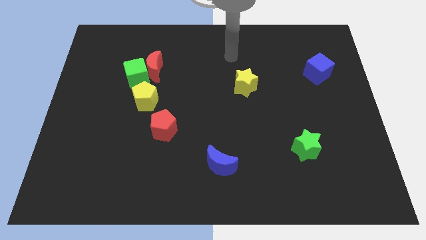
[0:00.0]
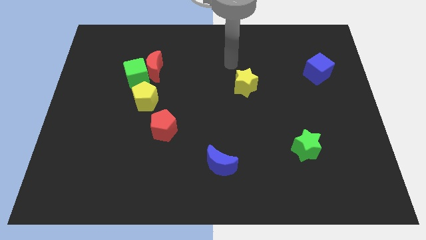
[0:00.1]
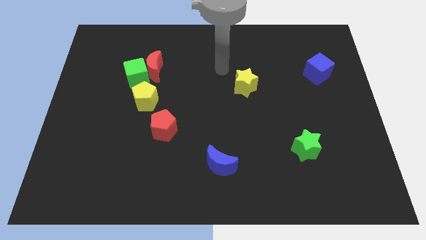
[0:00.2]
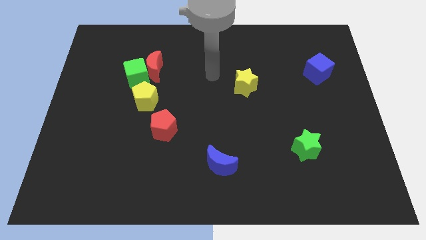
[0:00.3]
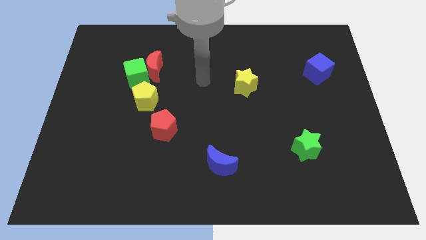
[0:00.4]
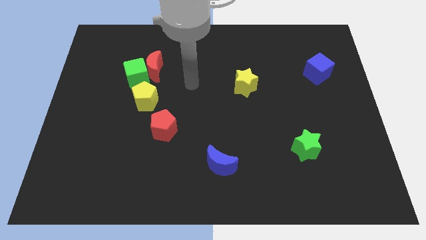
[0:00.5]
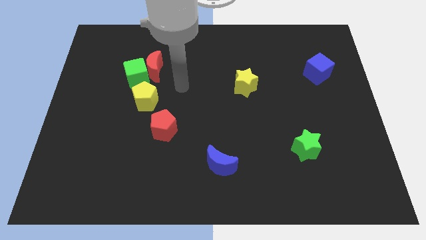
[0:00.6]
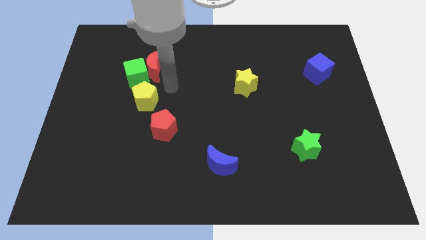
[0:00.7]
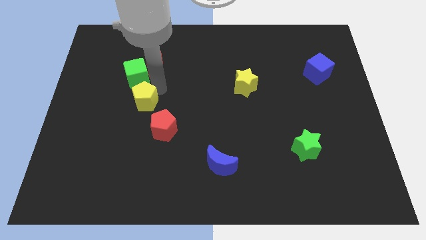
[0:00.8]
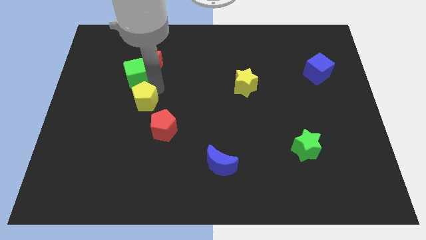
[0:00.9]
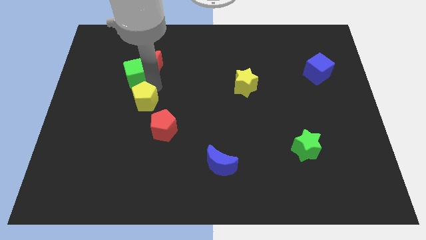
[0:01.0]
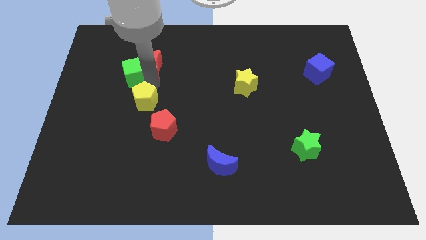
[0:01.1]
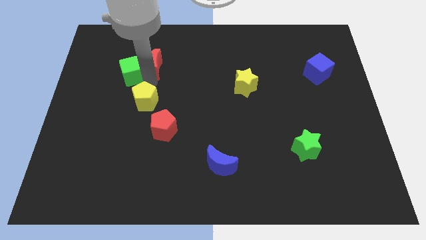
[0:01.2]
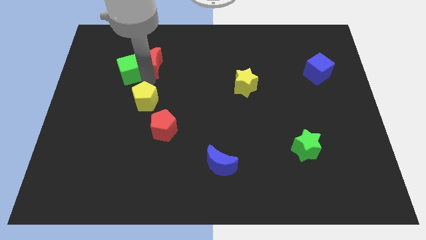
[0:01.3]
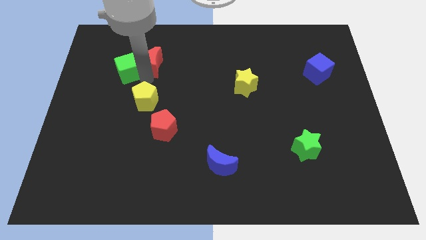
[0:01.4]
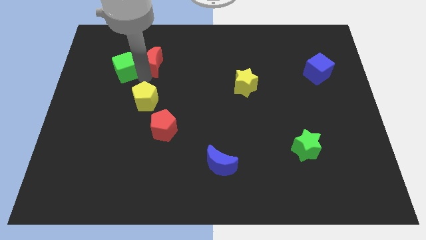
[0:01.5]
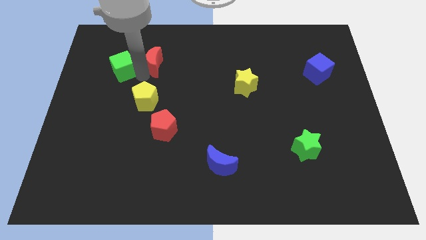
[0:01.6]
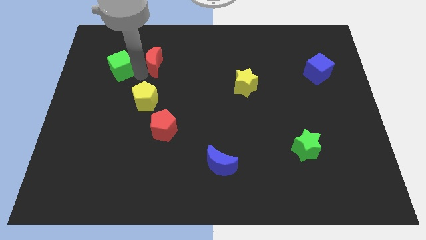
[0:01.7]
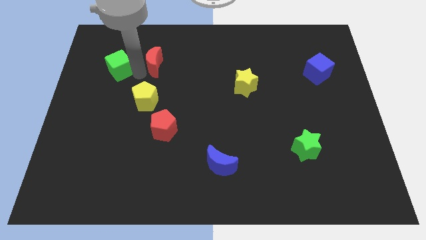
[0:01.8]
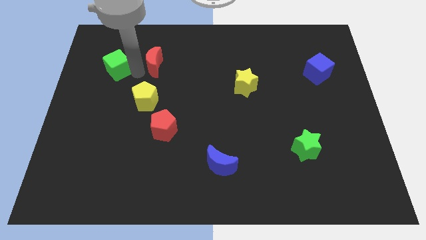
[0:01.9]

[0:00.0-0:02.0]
move the green cube away from the red moon and yellow pentagon

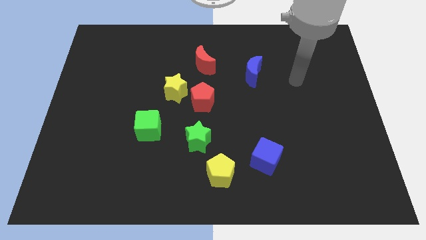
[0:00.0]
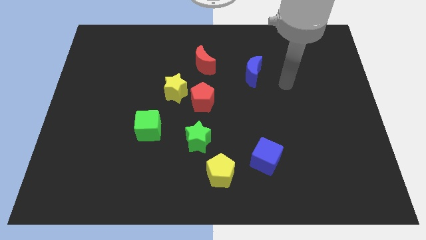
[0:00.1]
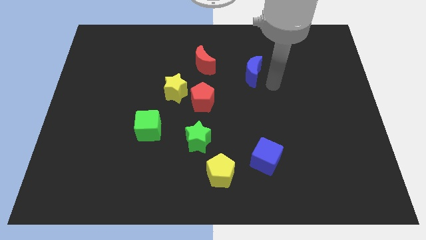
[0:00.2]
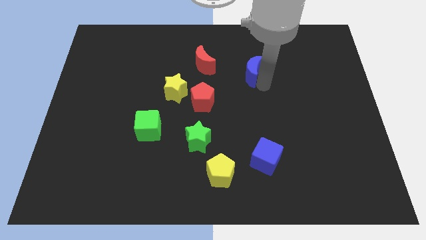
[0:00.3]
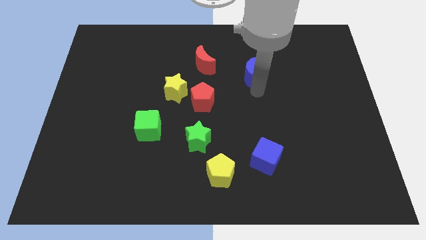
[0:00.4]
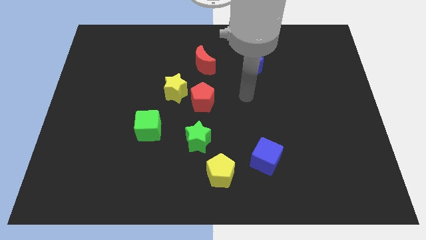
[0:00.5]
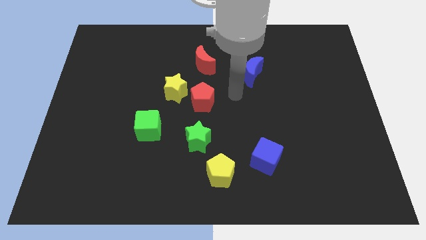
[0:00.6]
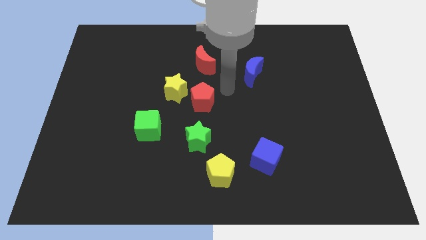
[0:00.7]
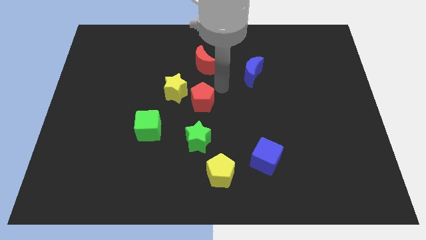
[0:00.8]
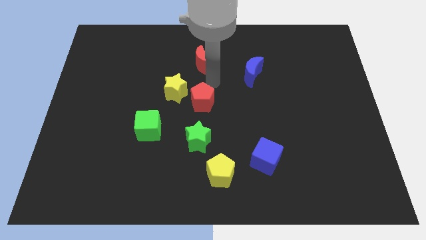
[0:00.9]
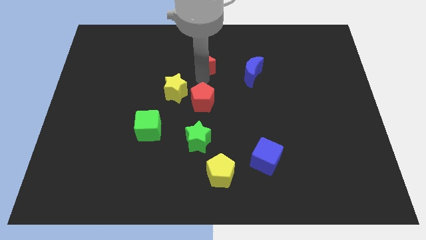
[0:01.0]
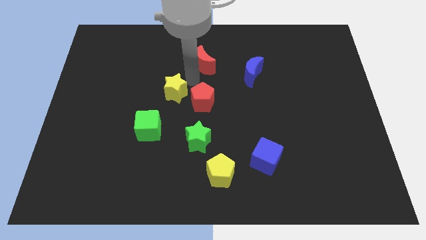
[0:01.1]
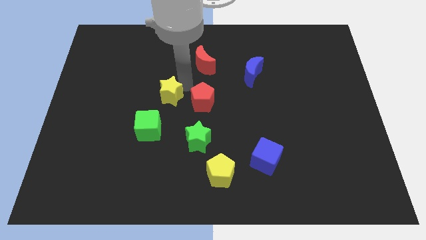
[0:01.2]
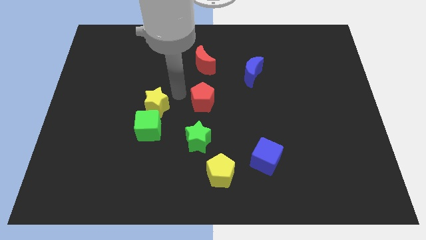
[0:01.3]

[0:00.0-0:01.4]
separate the red pentagon from the yellow star

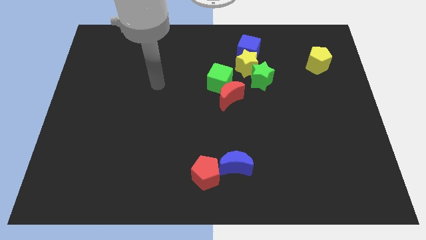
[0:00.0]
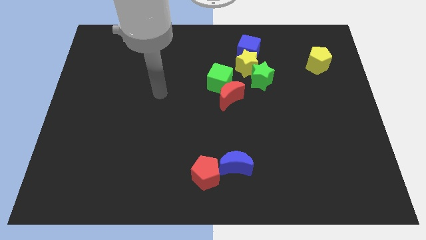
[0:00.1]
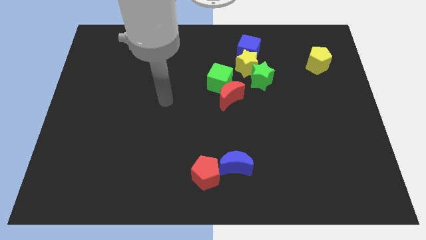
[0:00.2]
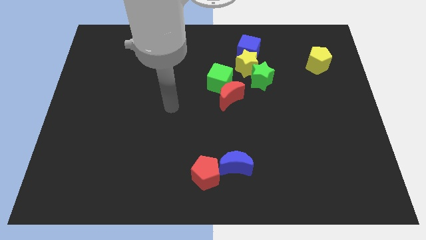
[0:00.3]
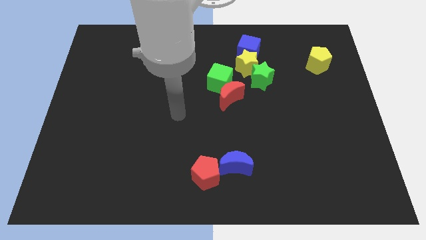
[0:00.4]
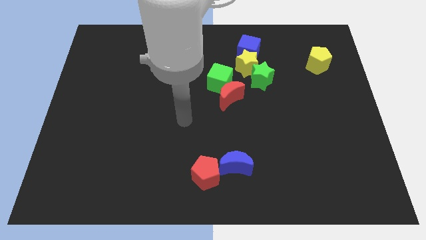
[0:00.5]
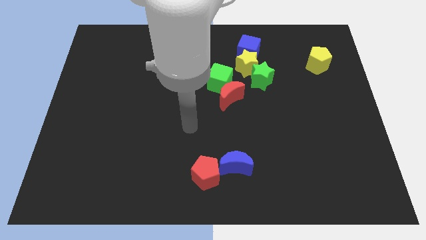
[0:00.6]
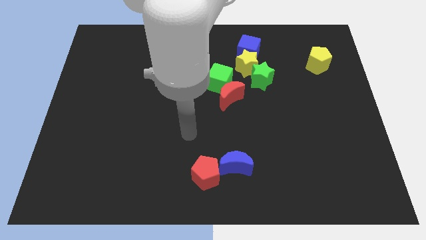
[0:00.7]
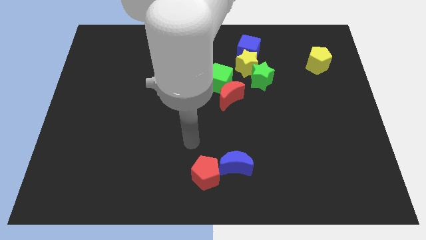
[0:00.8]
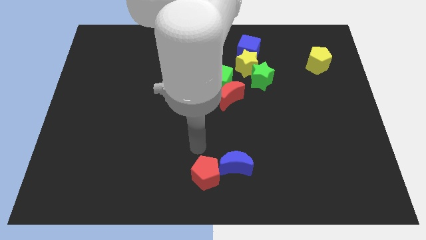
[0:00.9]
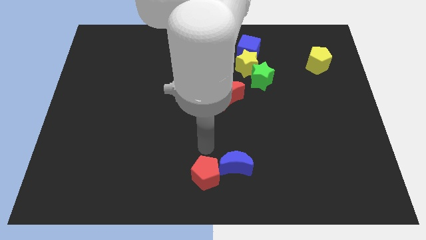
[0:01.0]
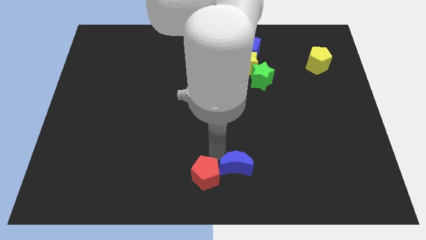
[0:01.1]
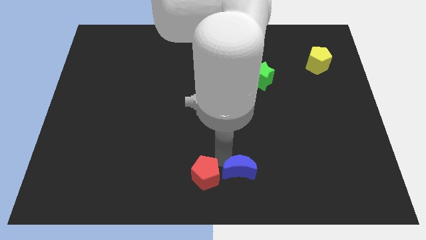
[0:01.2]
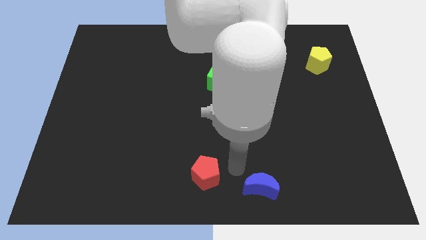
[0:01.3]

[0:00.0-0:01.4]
separate the red pentagon from the blue moon

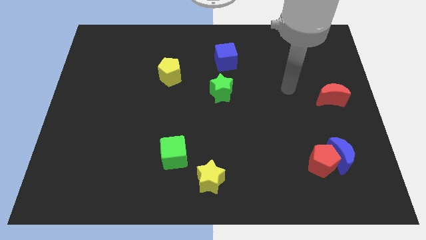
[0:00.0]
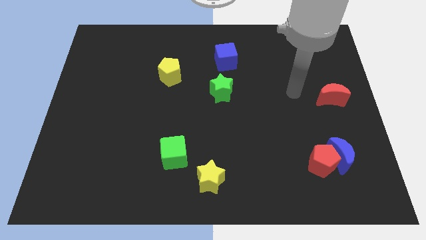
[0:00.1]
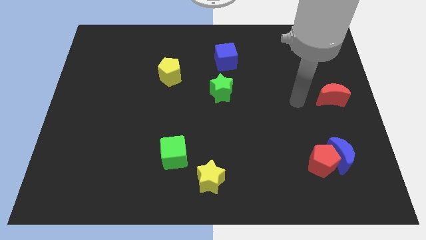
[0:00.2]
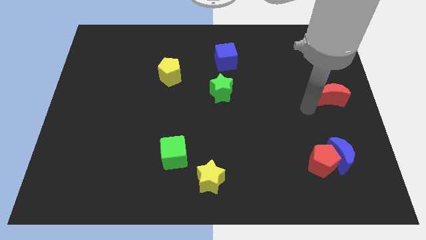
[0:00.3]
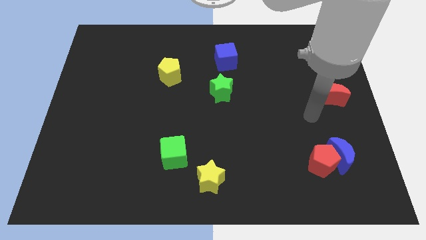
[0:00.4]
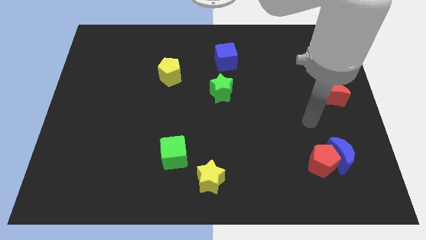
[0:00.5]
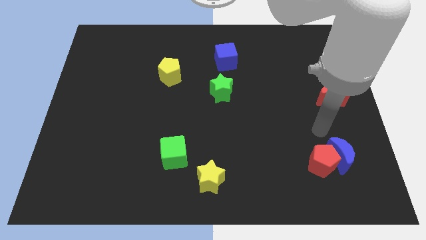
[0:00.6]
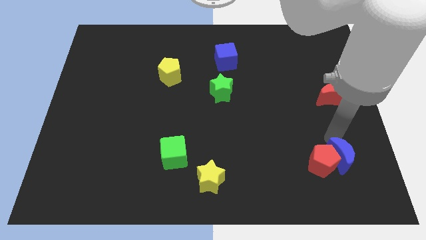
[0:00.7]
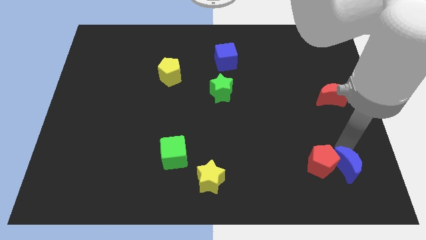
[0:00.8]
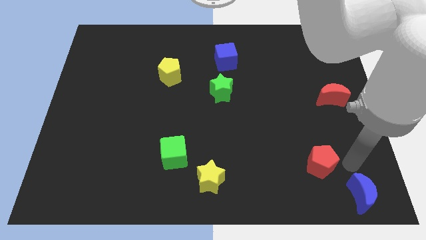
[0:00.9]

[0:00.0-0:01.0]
move the red pentagon away from the blue moon

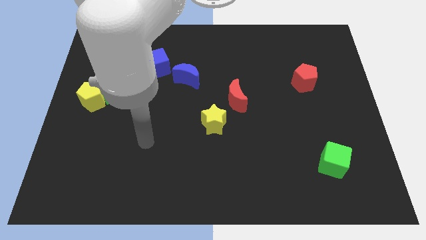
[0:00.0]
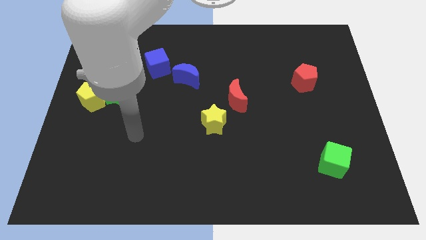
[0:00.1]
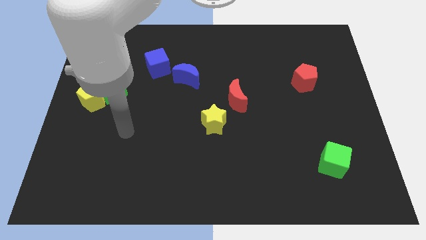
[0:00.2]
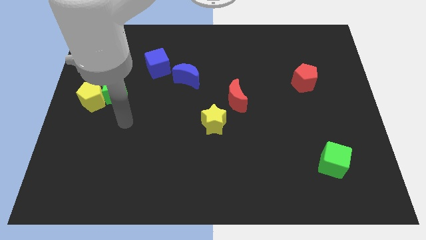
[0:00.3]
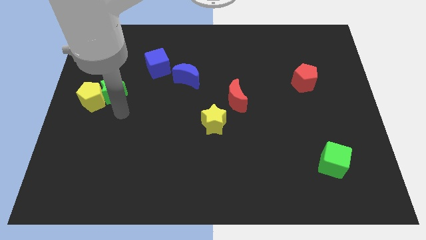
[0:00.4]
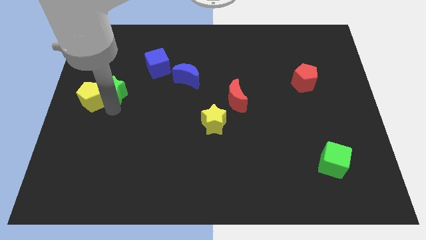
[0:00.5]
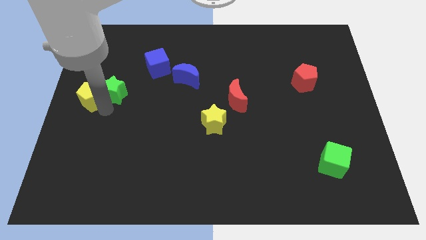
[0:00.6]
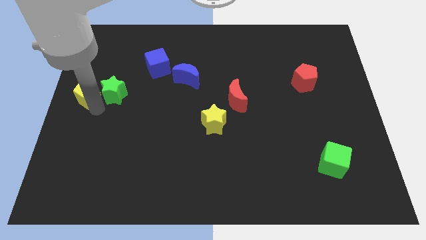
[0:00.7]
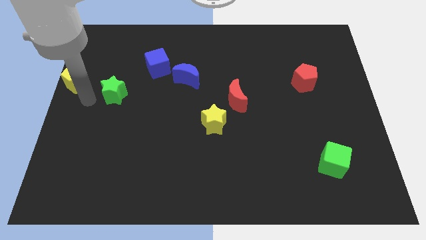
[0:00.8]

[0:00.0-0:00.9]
pull the green star apart from the yellow pentagon

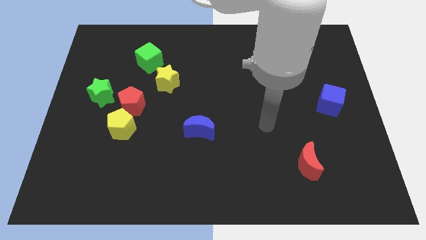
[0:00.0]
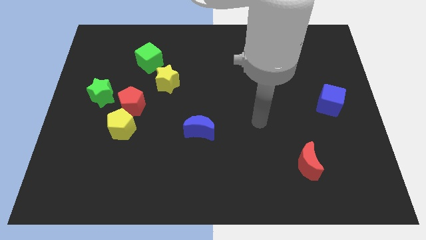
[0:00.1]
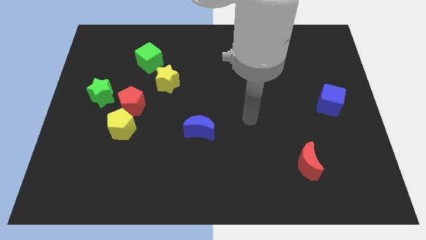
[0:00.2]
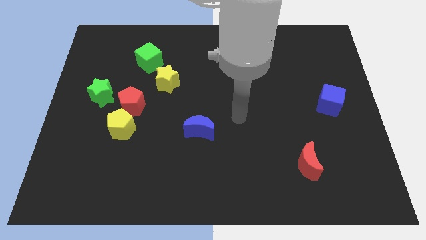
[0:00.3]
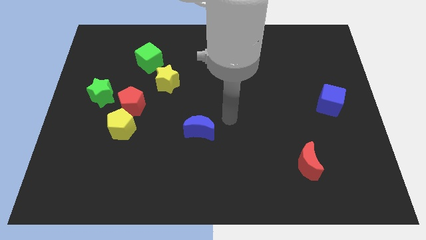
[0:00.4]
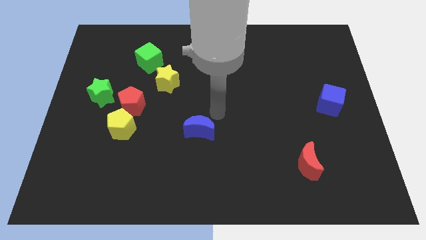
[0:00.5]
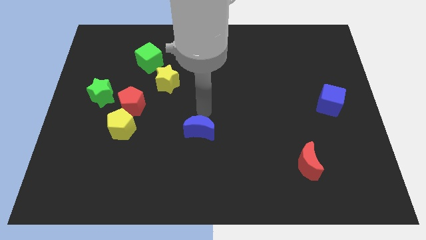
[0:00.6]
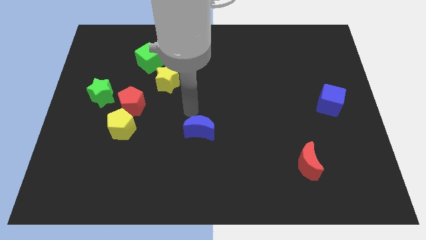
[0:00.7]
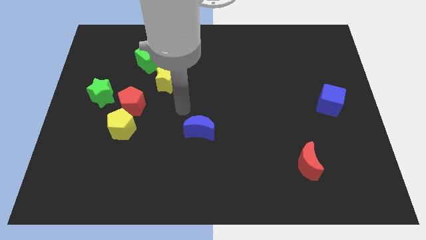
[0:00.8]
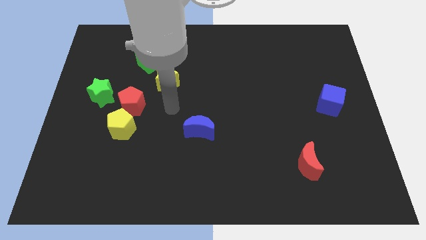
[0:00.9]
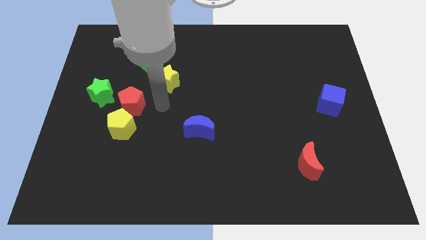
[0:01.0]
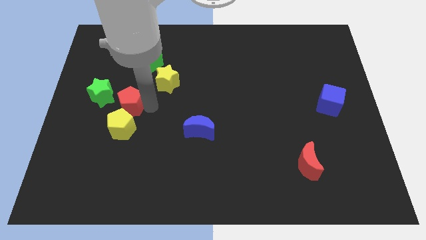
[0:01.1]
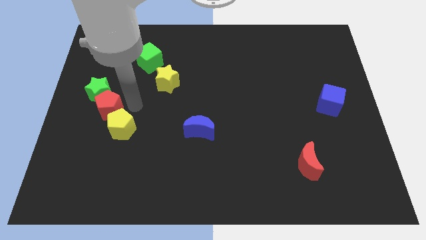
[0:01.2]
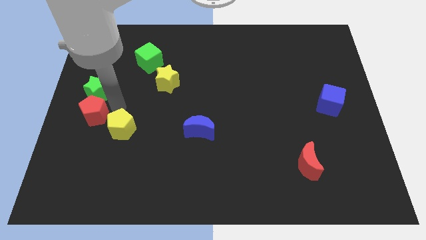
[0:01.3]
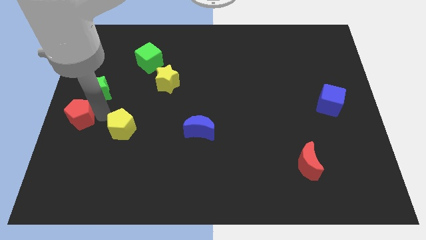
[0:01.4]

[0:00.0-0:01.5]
separate the yellow pentagon from the red pentagon

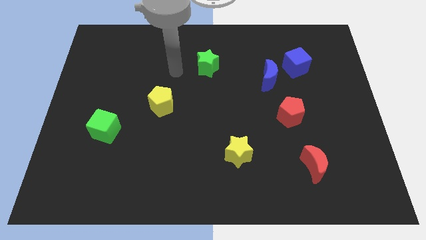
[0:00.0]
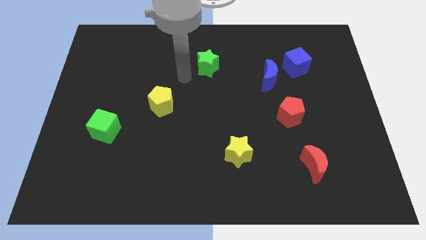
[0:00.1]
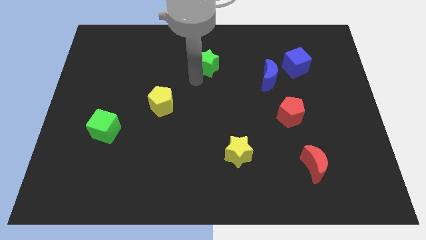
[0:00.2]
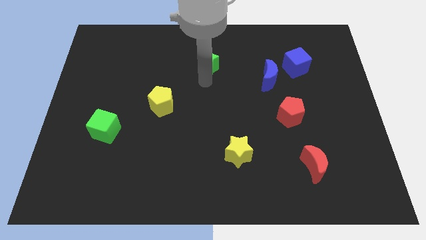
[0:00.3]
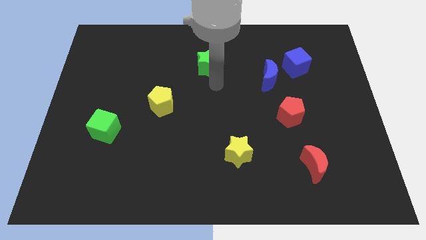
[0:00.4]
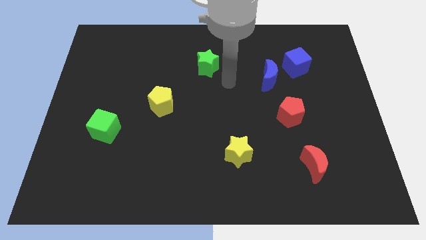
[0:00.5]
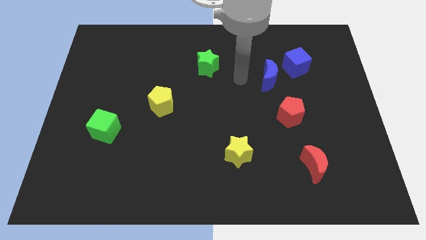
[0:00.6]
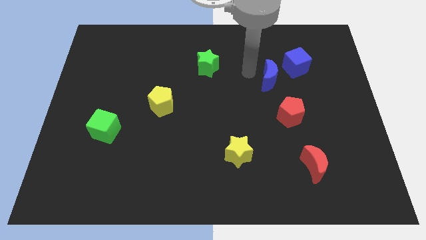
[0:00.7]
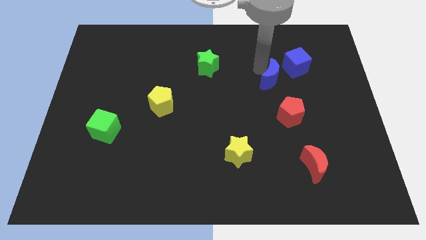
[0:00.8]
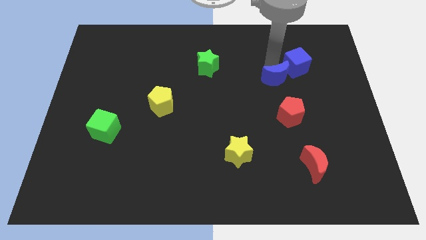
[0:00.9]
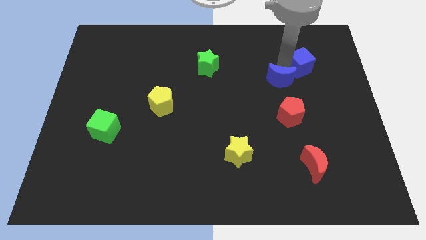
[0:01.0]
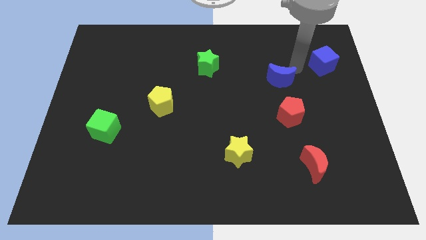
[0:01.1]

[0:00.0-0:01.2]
separate the blue moon from the blue cube
